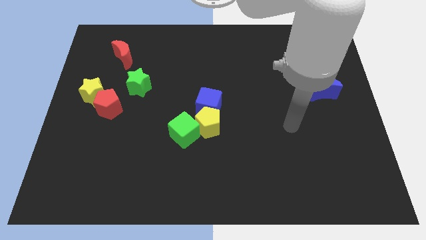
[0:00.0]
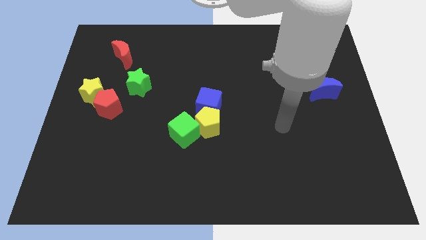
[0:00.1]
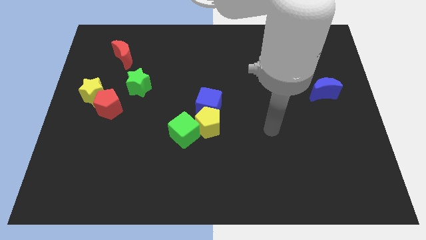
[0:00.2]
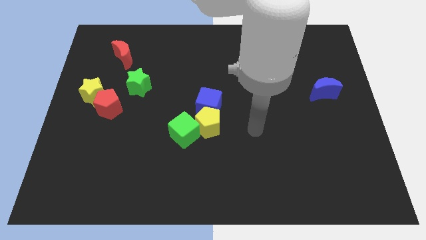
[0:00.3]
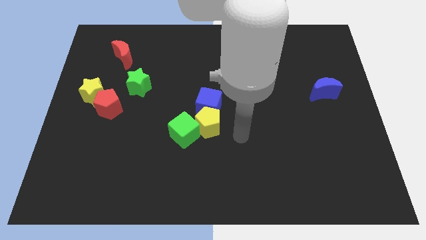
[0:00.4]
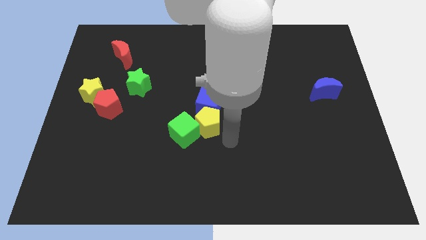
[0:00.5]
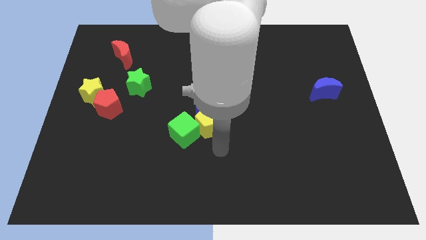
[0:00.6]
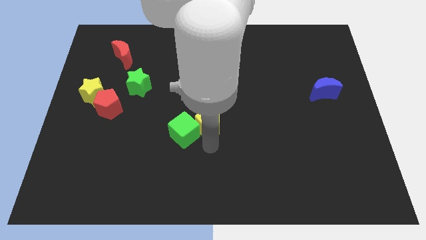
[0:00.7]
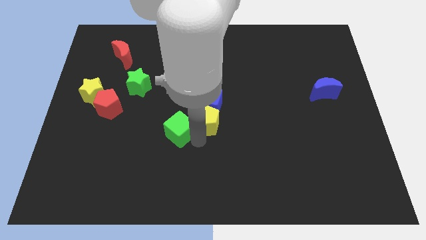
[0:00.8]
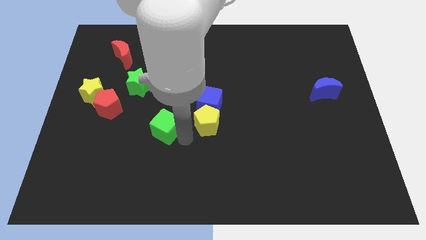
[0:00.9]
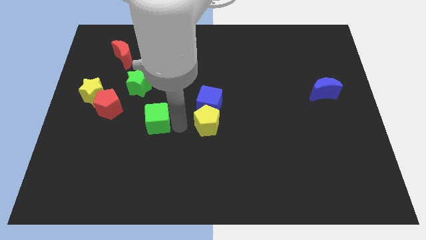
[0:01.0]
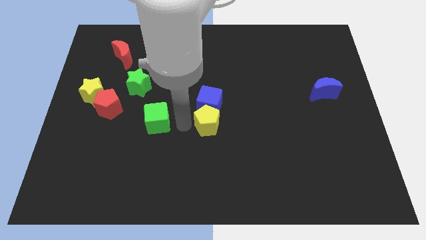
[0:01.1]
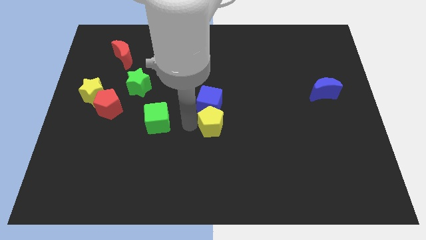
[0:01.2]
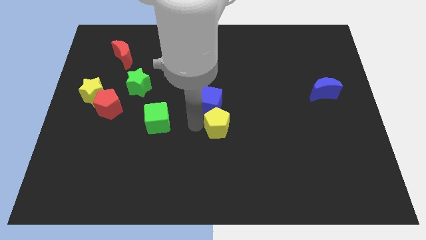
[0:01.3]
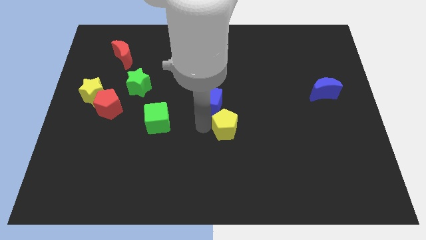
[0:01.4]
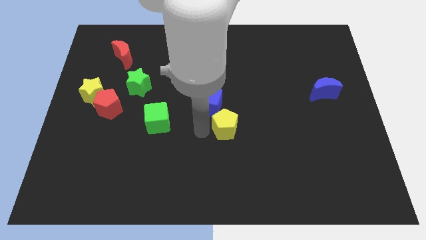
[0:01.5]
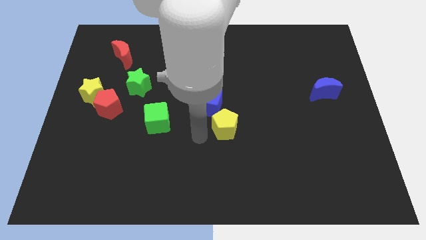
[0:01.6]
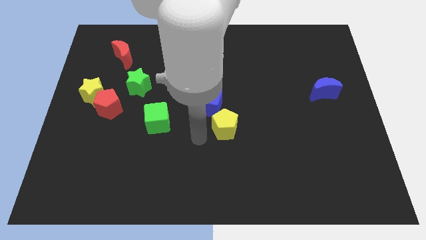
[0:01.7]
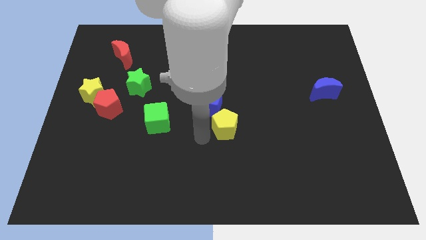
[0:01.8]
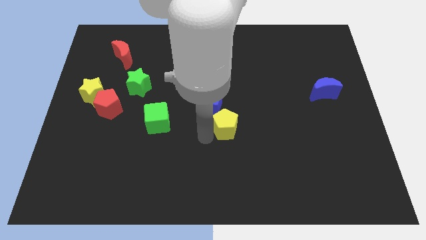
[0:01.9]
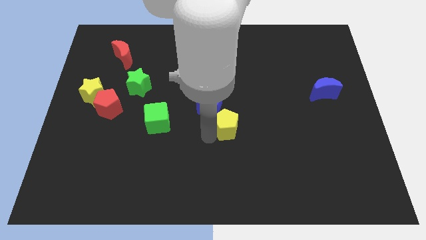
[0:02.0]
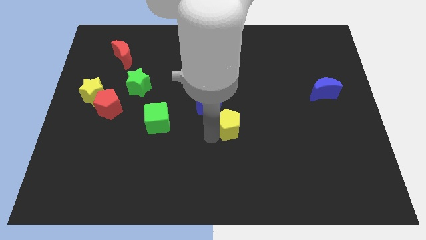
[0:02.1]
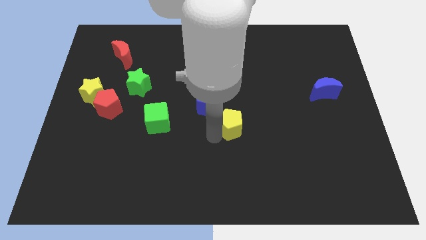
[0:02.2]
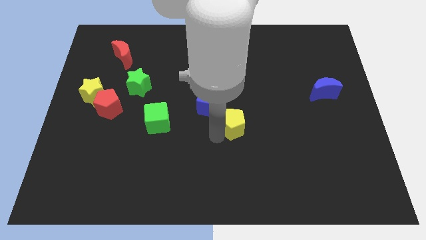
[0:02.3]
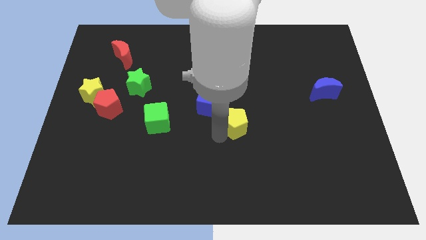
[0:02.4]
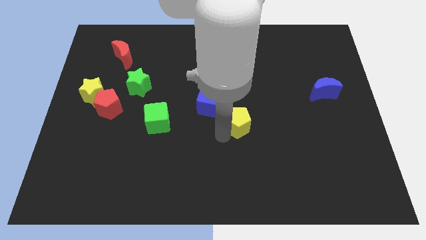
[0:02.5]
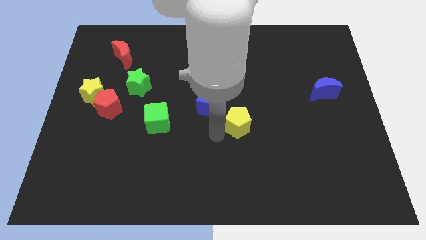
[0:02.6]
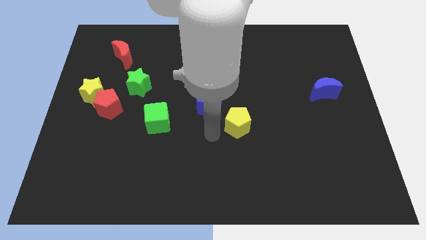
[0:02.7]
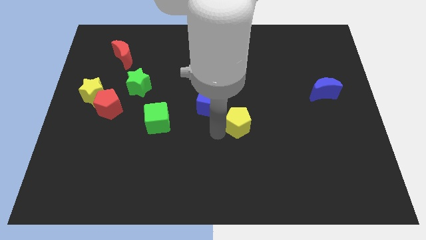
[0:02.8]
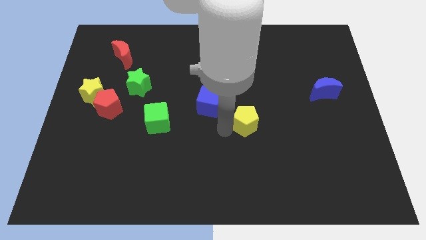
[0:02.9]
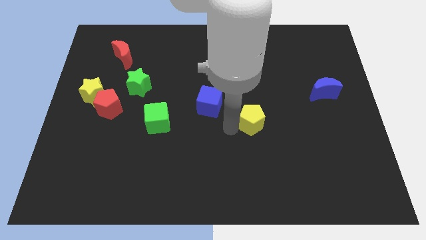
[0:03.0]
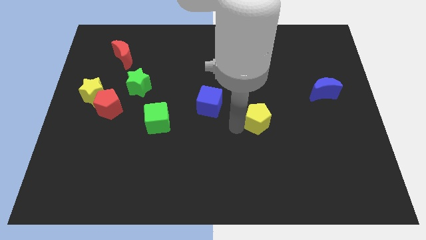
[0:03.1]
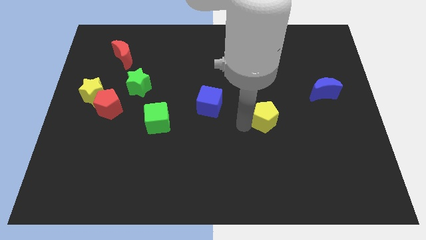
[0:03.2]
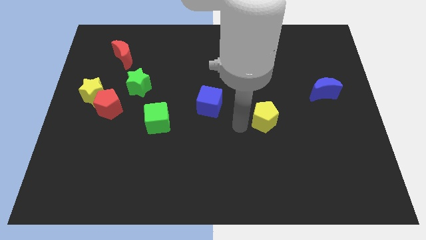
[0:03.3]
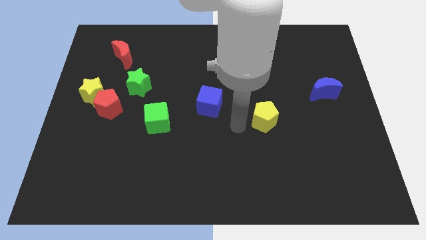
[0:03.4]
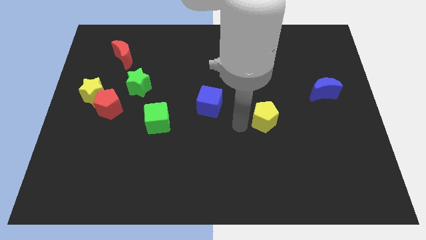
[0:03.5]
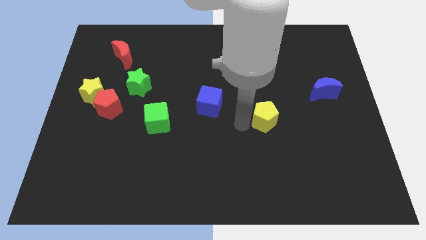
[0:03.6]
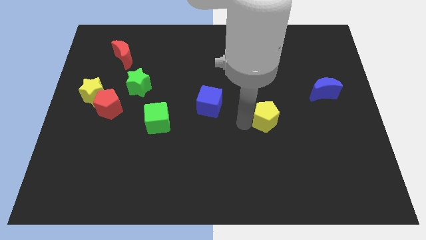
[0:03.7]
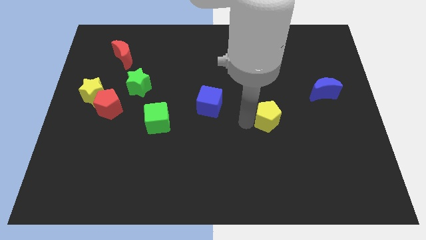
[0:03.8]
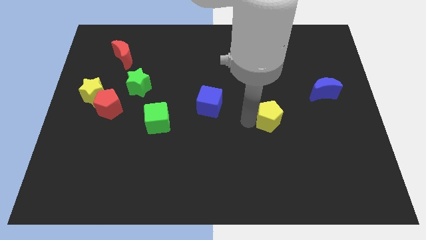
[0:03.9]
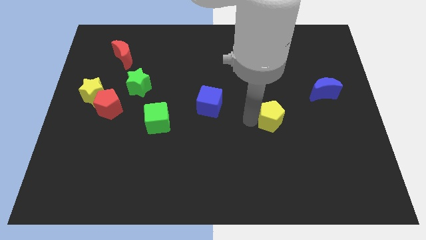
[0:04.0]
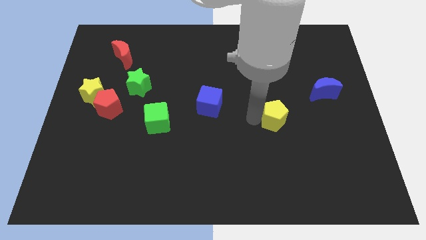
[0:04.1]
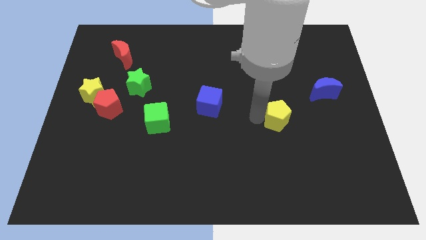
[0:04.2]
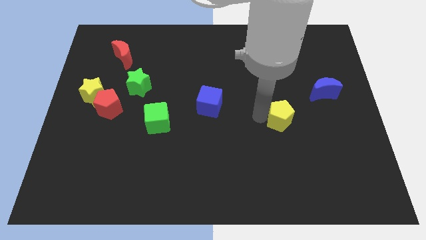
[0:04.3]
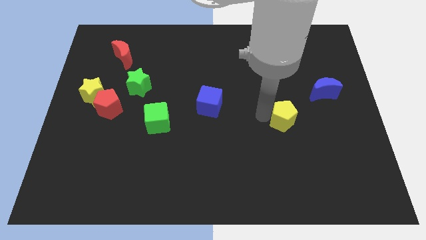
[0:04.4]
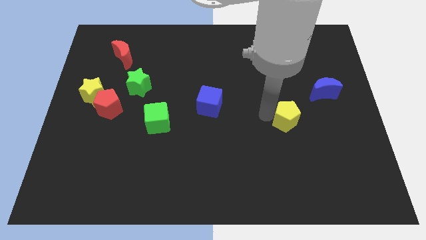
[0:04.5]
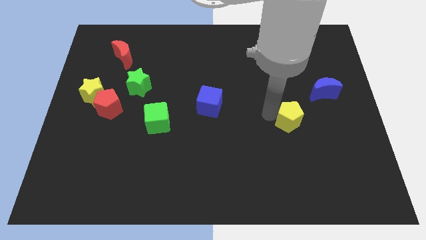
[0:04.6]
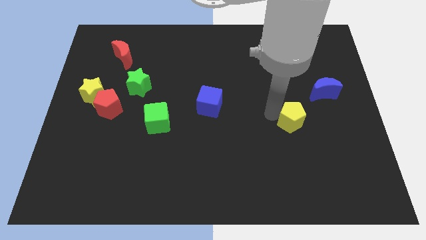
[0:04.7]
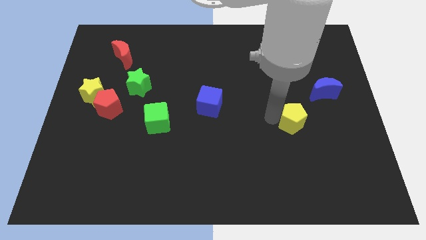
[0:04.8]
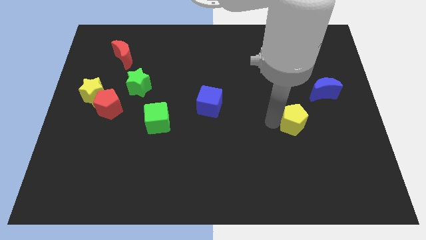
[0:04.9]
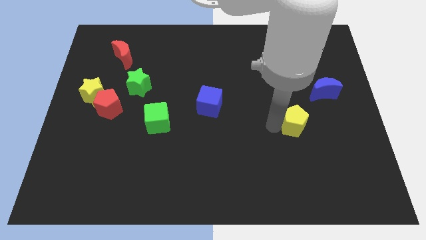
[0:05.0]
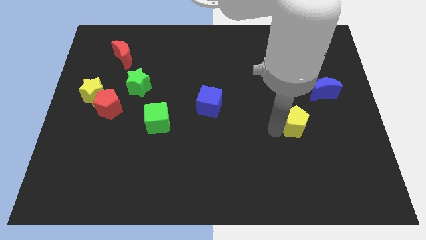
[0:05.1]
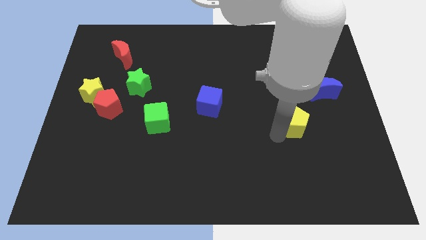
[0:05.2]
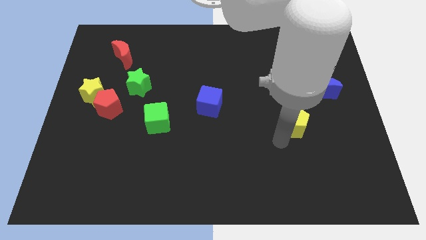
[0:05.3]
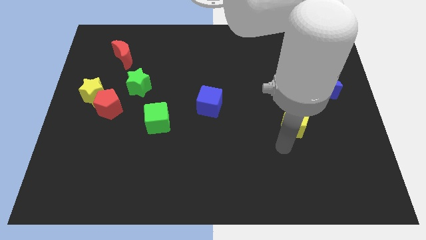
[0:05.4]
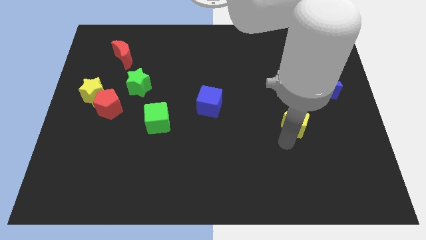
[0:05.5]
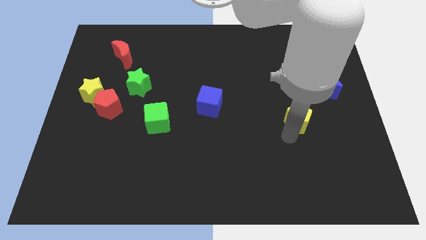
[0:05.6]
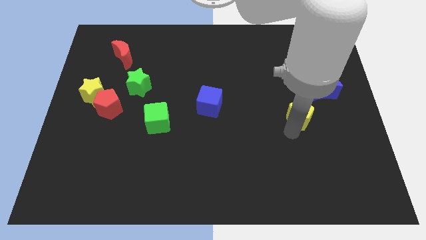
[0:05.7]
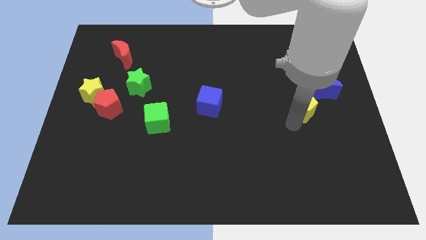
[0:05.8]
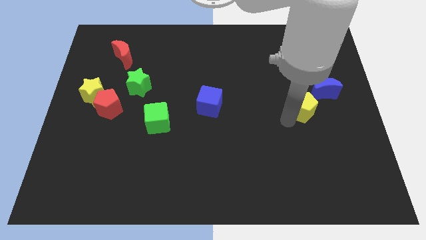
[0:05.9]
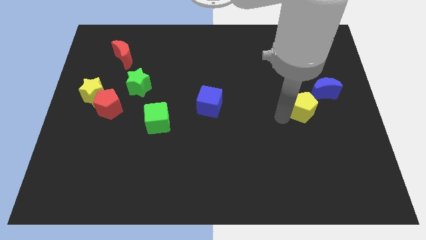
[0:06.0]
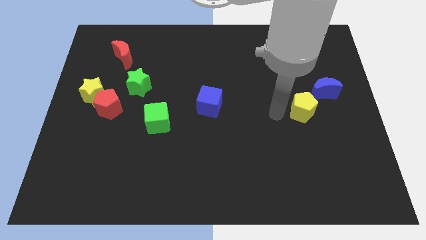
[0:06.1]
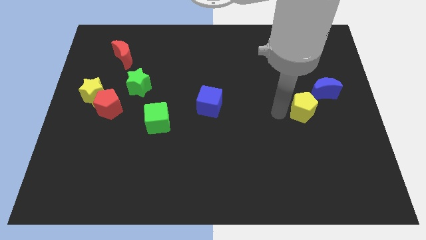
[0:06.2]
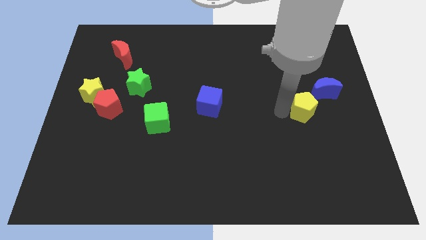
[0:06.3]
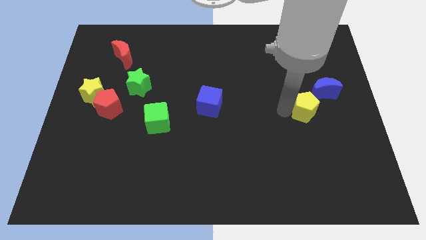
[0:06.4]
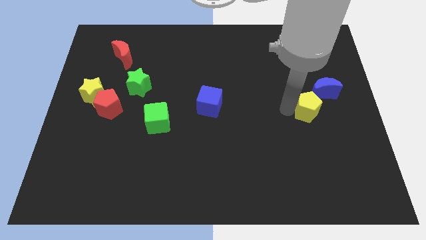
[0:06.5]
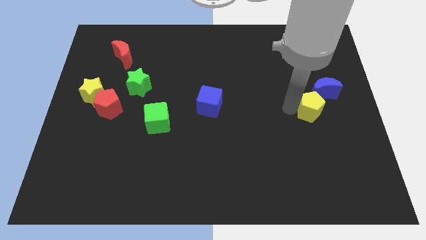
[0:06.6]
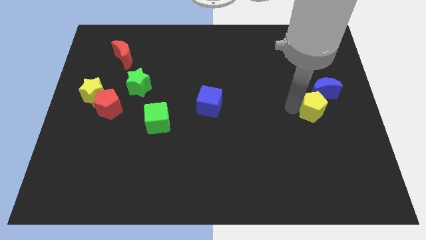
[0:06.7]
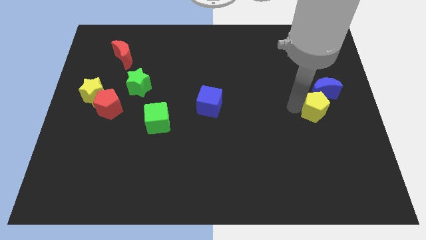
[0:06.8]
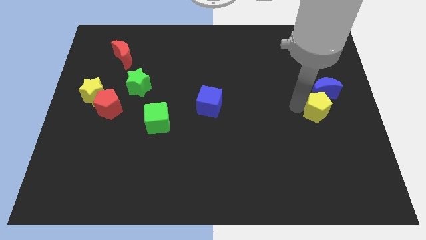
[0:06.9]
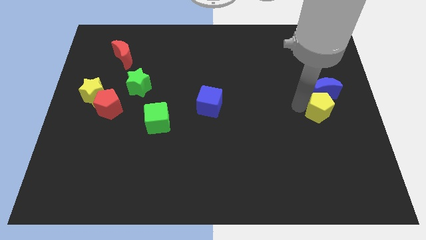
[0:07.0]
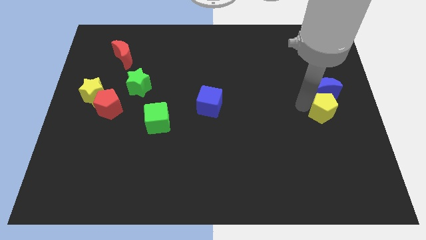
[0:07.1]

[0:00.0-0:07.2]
move the yellow pentagon to the right side of the board
